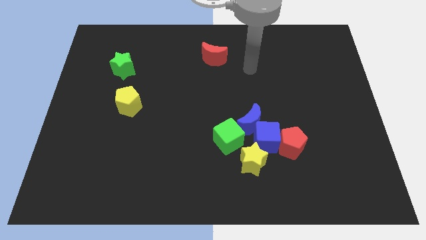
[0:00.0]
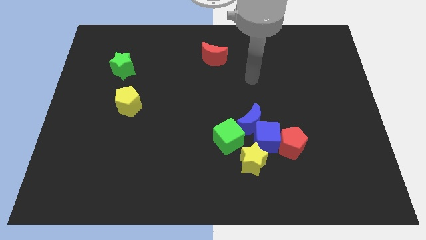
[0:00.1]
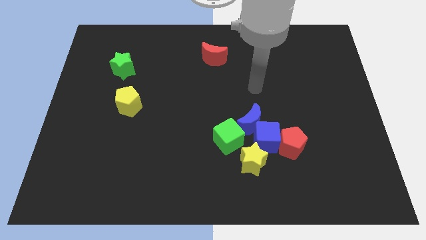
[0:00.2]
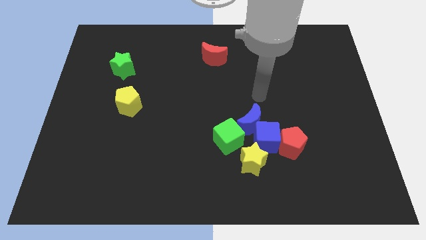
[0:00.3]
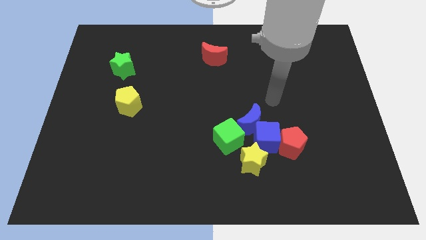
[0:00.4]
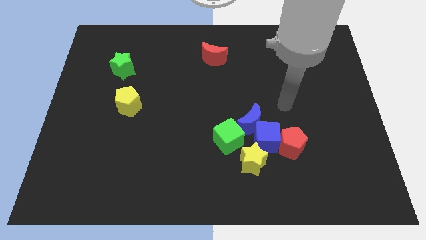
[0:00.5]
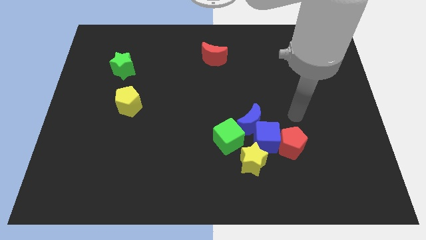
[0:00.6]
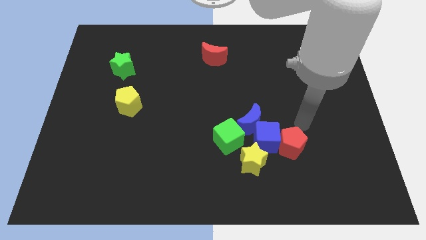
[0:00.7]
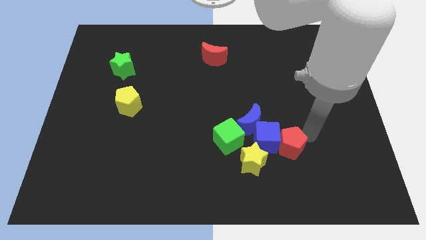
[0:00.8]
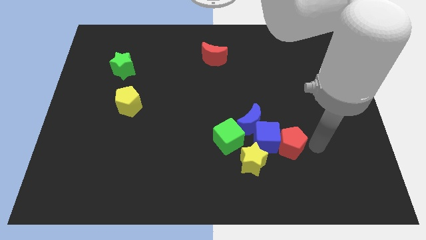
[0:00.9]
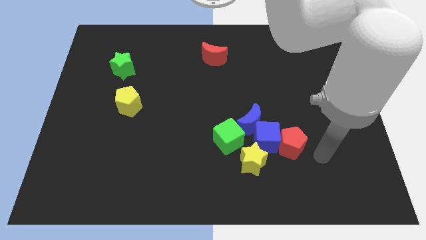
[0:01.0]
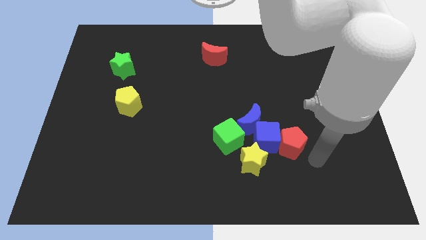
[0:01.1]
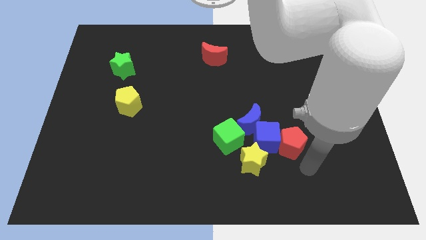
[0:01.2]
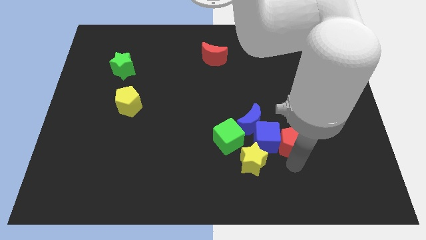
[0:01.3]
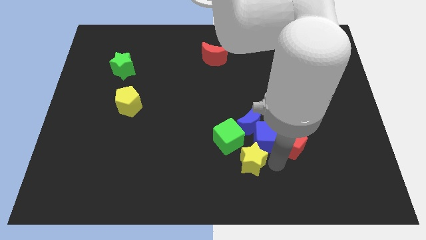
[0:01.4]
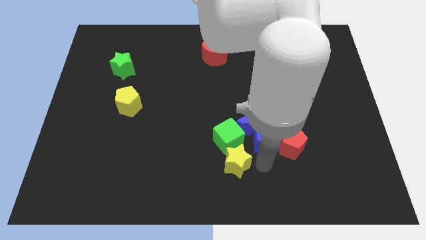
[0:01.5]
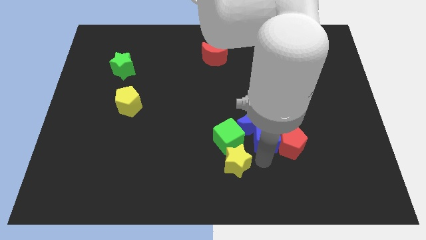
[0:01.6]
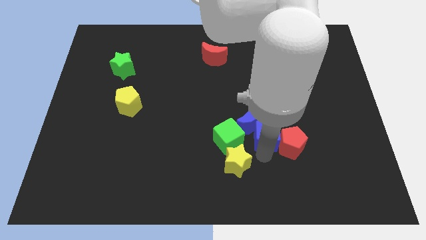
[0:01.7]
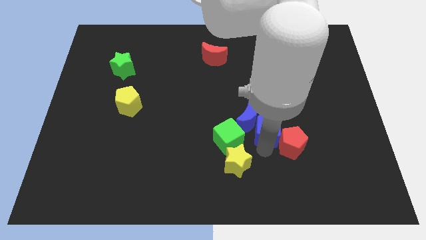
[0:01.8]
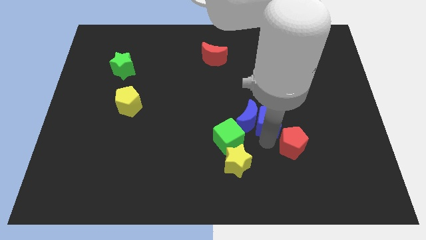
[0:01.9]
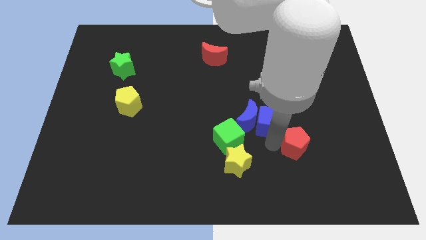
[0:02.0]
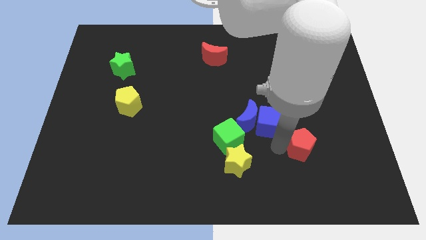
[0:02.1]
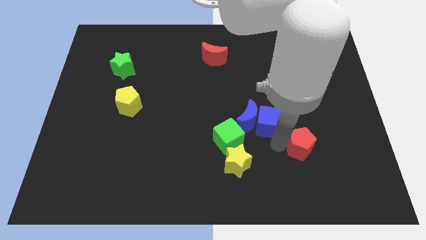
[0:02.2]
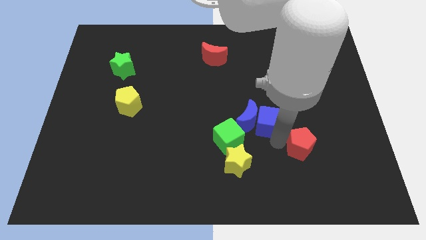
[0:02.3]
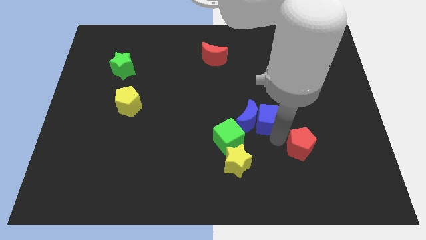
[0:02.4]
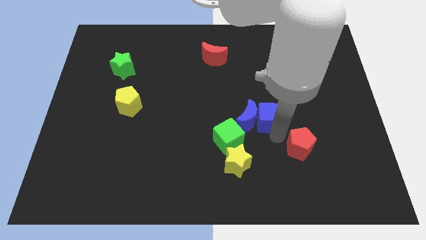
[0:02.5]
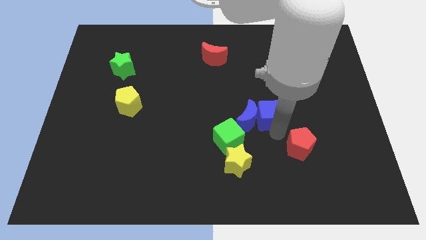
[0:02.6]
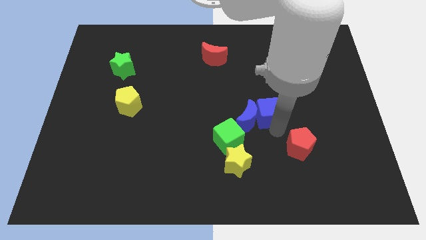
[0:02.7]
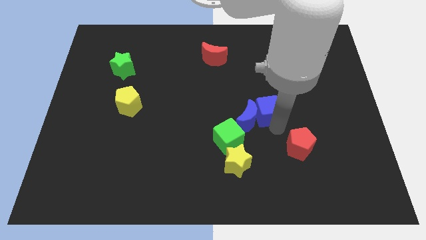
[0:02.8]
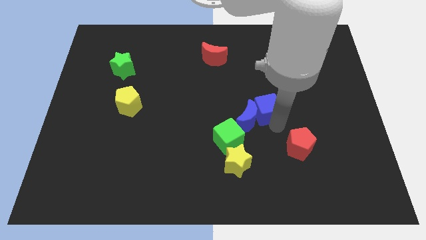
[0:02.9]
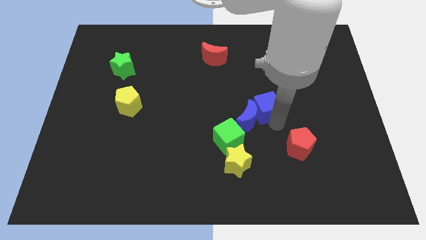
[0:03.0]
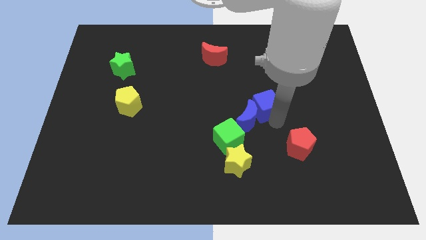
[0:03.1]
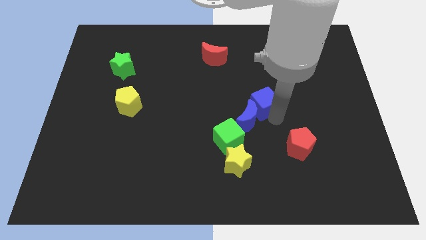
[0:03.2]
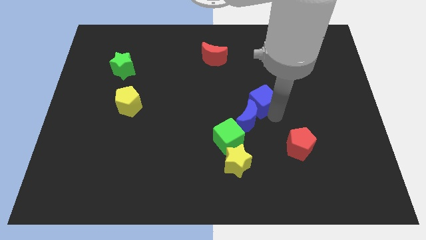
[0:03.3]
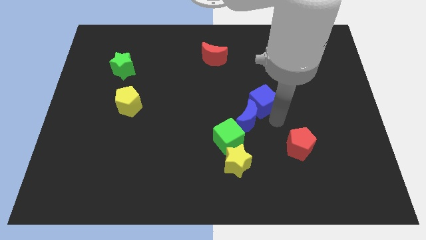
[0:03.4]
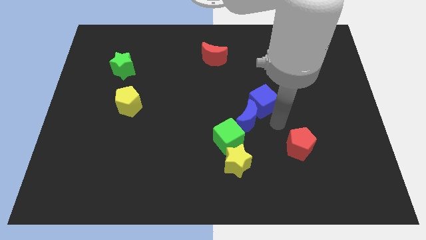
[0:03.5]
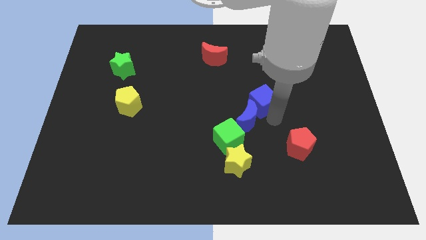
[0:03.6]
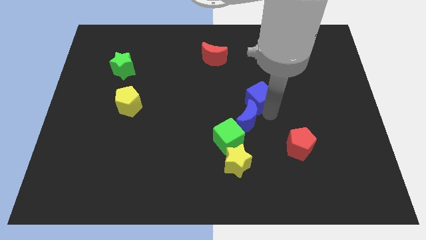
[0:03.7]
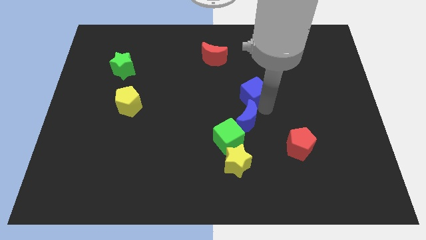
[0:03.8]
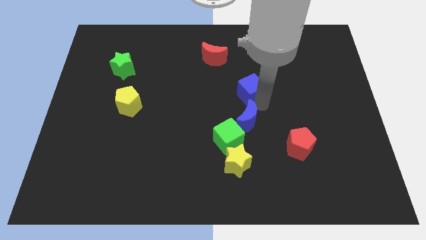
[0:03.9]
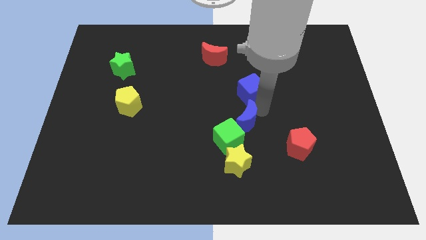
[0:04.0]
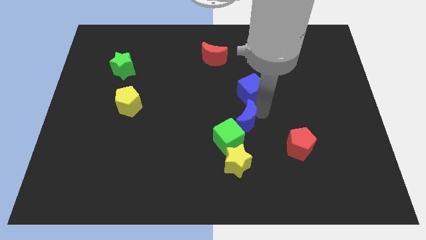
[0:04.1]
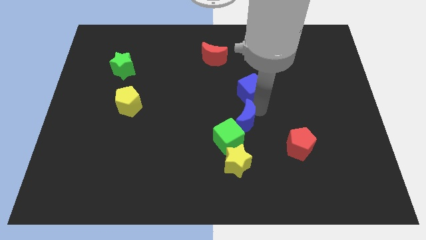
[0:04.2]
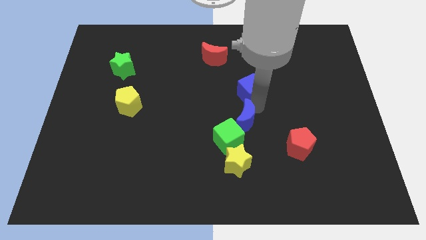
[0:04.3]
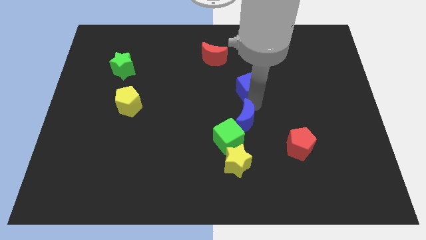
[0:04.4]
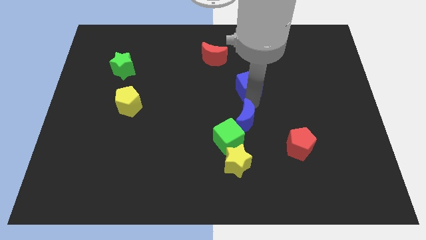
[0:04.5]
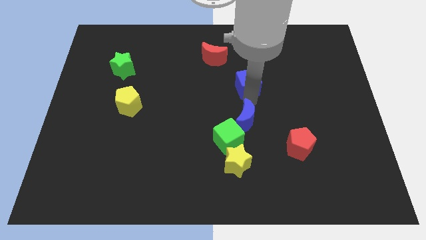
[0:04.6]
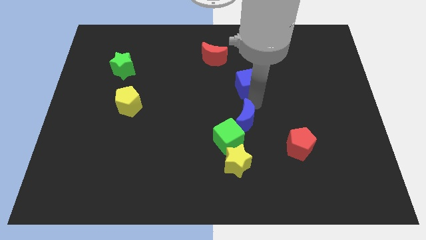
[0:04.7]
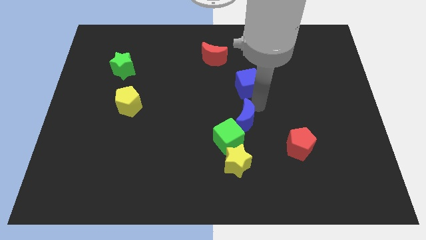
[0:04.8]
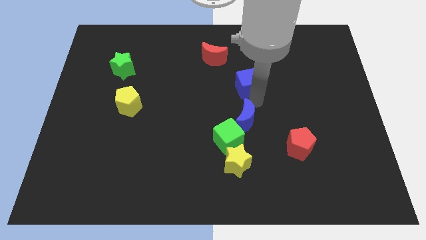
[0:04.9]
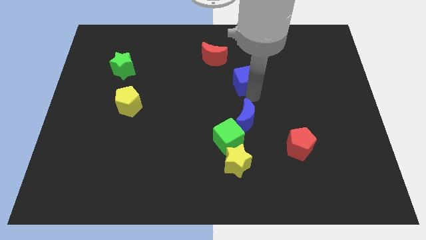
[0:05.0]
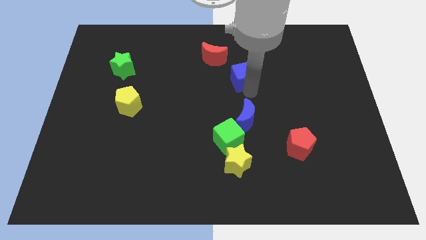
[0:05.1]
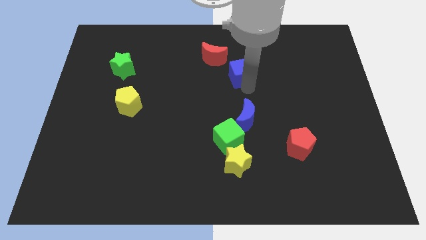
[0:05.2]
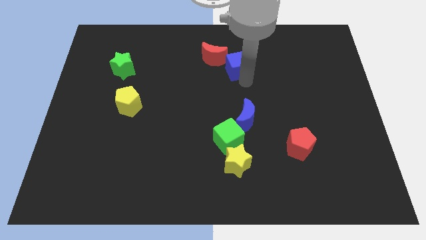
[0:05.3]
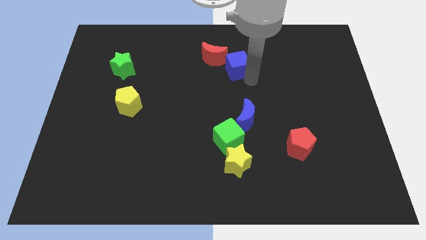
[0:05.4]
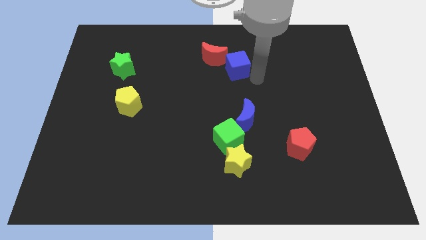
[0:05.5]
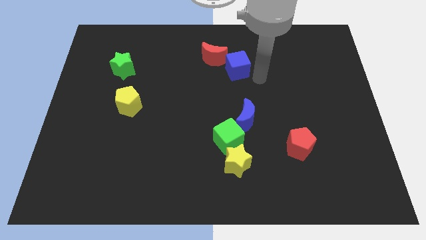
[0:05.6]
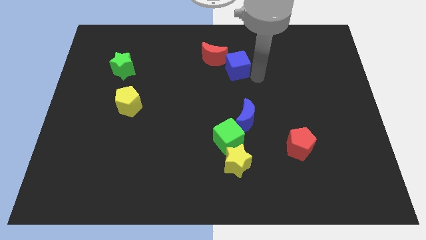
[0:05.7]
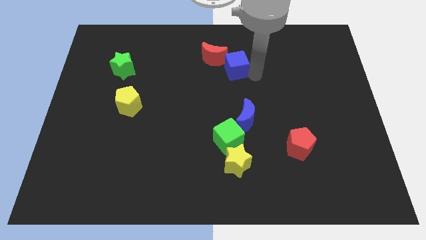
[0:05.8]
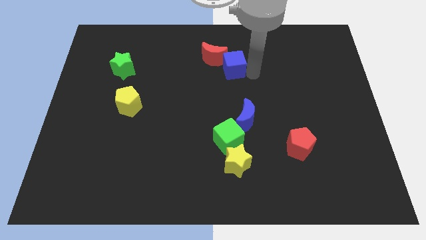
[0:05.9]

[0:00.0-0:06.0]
slide the blue cube towards the red moon

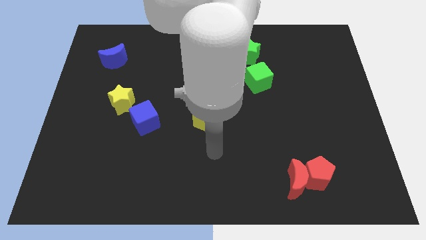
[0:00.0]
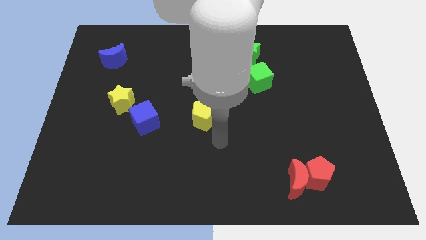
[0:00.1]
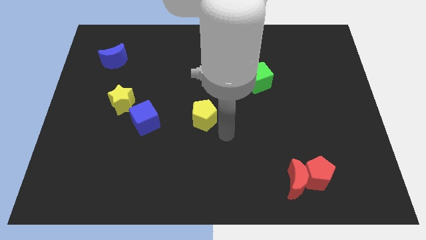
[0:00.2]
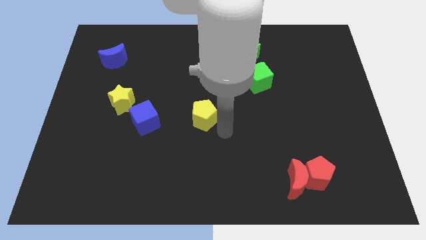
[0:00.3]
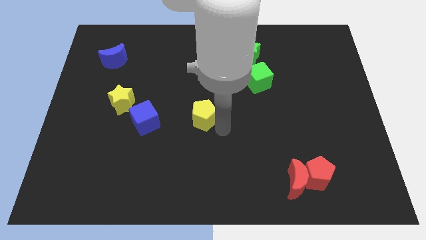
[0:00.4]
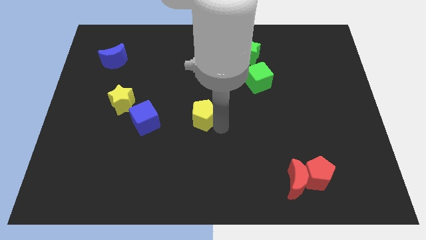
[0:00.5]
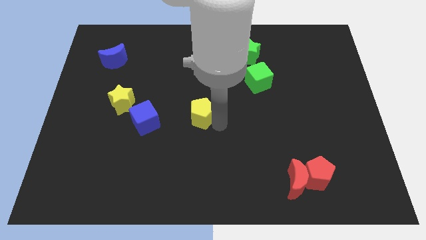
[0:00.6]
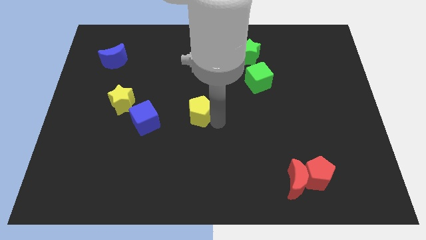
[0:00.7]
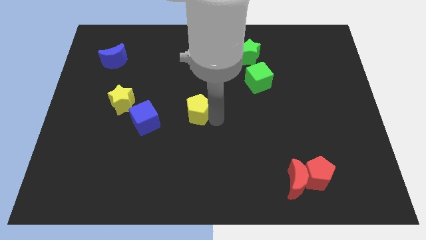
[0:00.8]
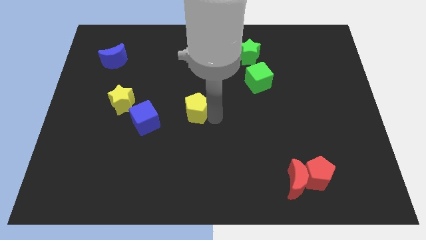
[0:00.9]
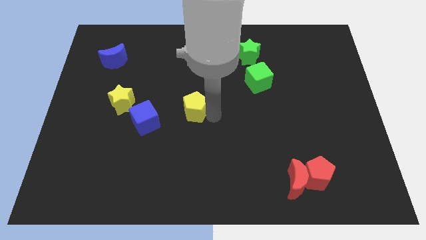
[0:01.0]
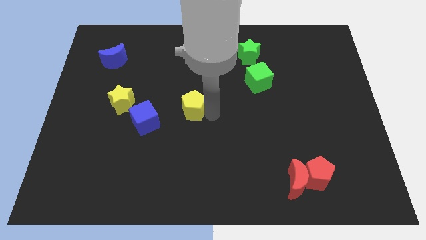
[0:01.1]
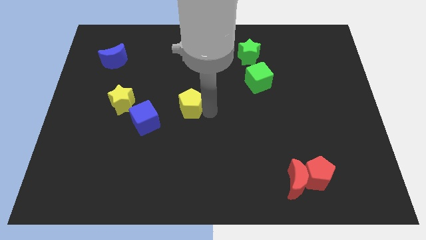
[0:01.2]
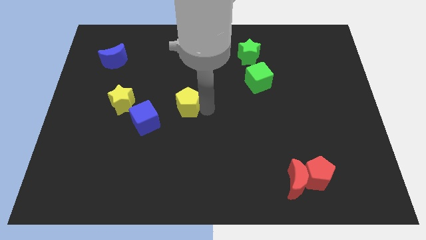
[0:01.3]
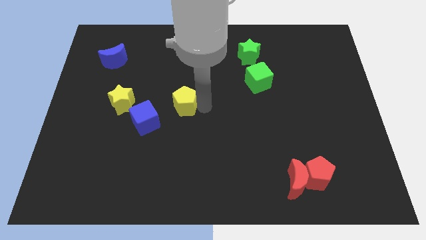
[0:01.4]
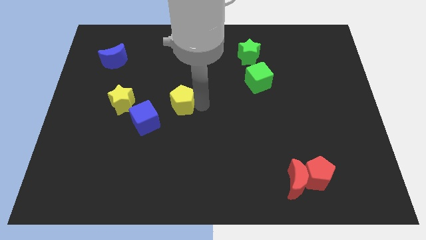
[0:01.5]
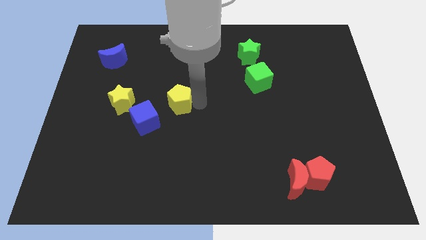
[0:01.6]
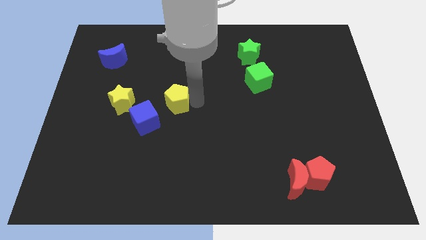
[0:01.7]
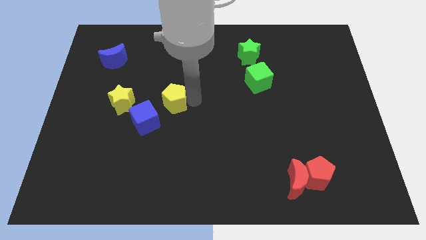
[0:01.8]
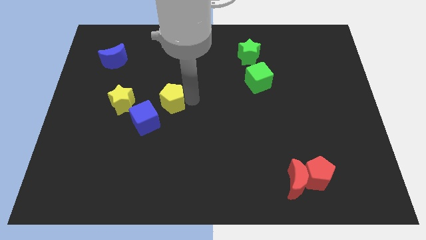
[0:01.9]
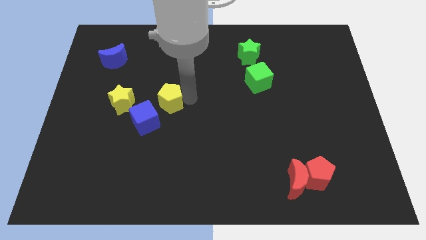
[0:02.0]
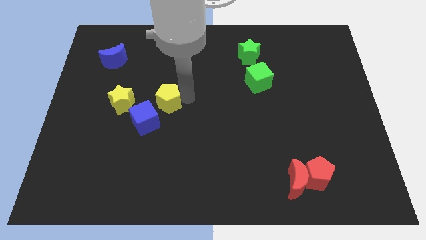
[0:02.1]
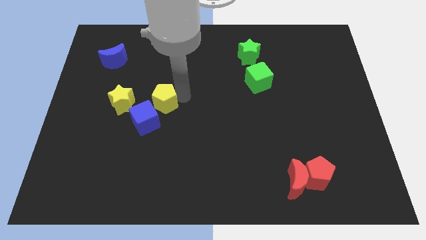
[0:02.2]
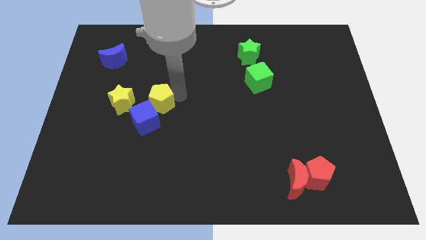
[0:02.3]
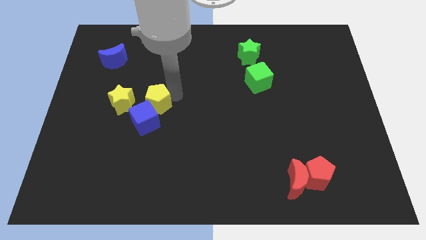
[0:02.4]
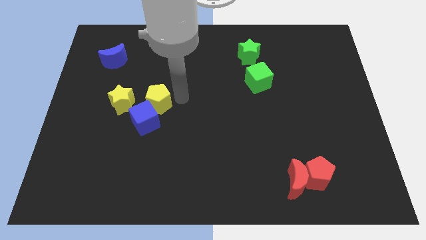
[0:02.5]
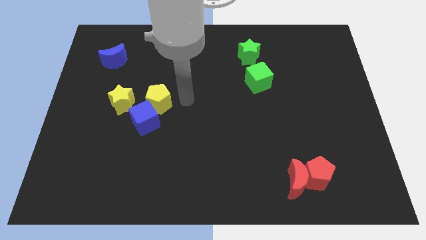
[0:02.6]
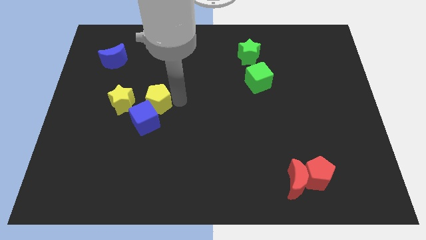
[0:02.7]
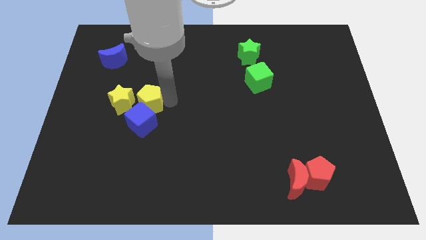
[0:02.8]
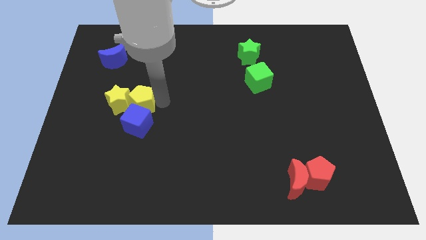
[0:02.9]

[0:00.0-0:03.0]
slide the yellow pentagon towards the yellow star
